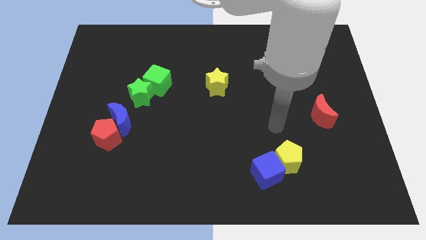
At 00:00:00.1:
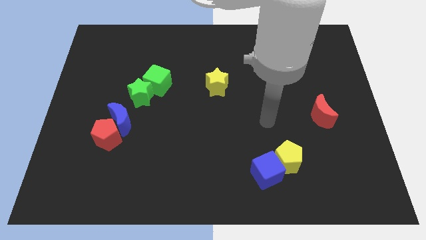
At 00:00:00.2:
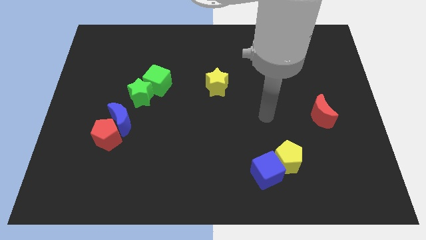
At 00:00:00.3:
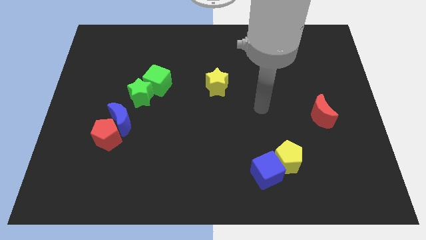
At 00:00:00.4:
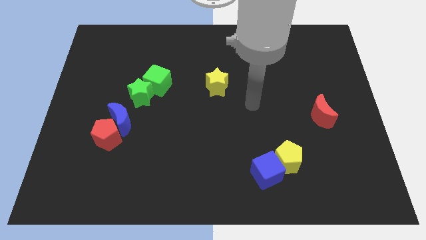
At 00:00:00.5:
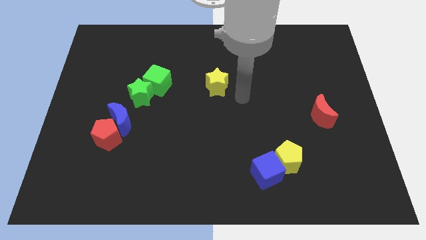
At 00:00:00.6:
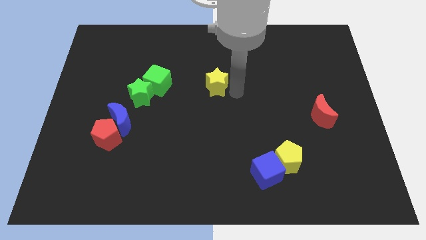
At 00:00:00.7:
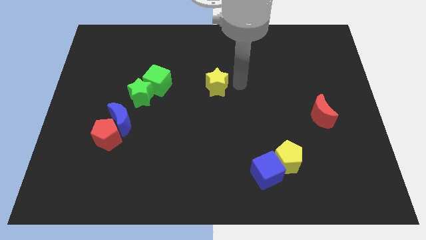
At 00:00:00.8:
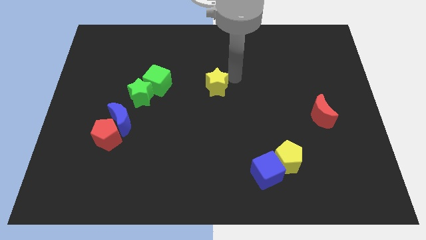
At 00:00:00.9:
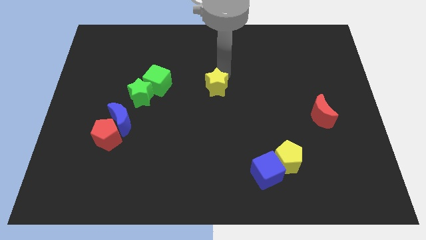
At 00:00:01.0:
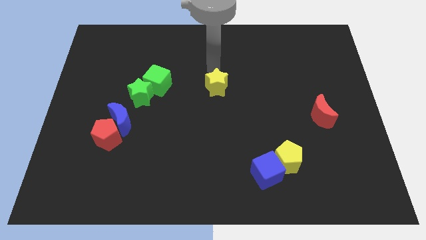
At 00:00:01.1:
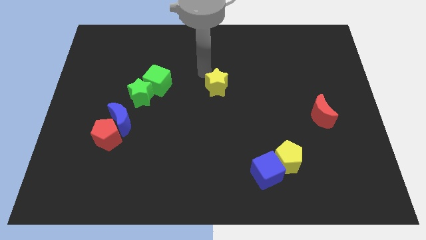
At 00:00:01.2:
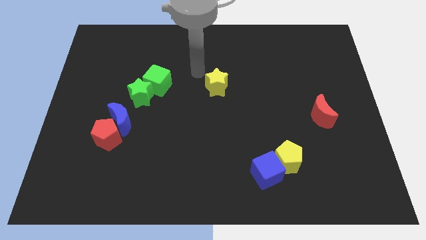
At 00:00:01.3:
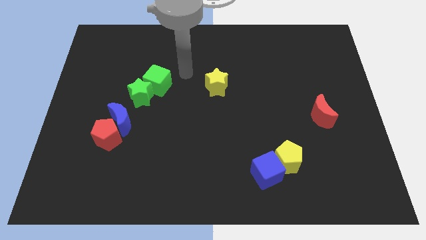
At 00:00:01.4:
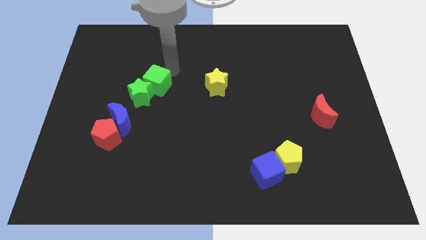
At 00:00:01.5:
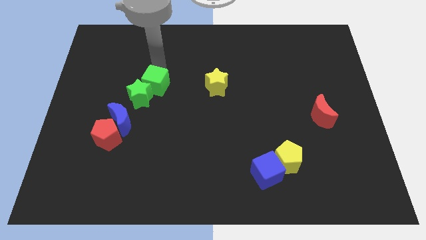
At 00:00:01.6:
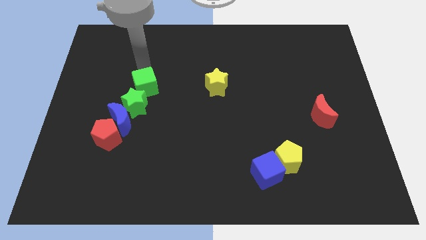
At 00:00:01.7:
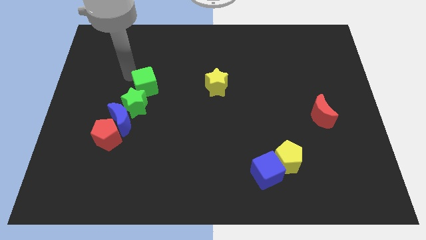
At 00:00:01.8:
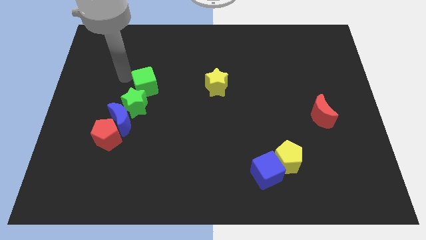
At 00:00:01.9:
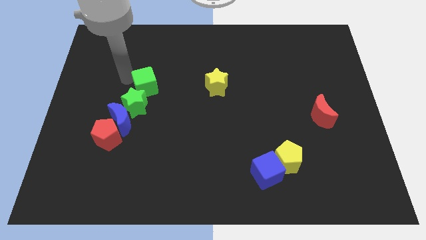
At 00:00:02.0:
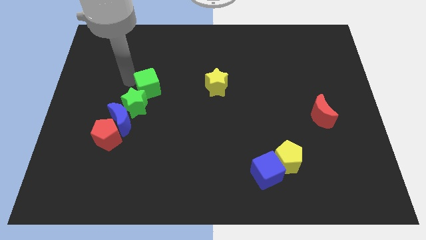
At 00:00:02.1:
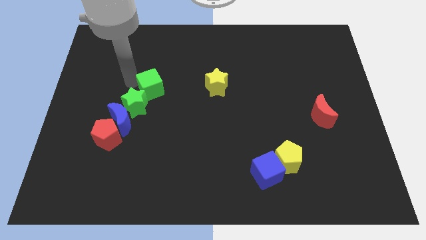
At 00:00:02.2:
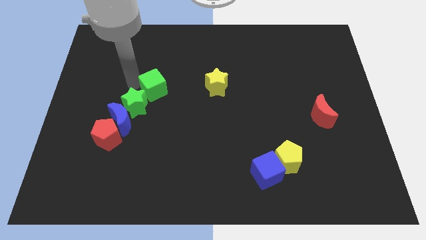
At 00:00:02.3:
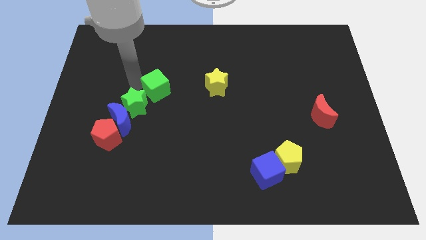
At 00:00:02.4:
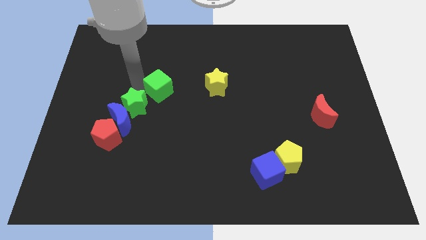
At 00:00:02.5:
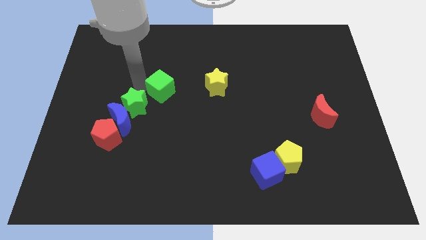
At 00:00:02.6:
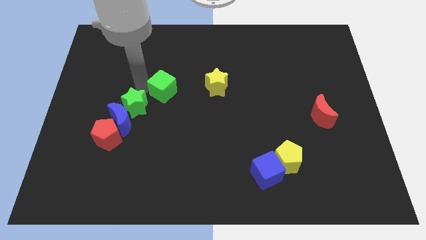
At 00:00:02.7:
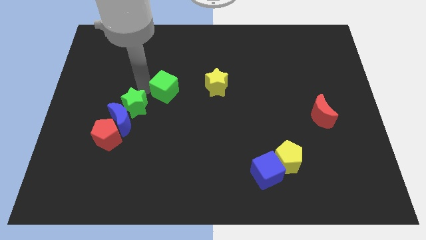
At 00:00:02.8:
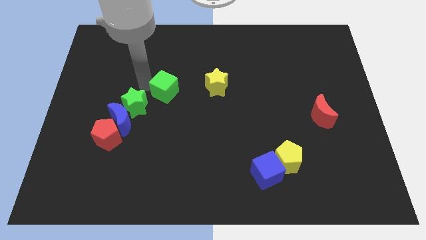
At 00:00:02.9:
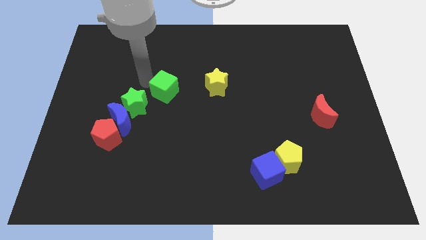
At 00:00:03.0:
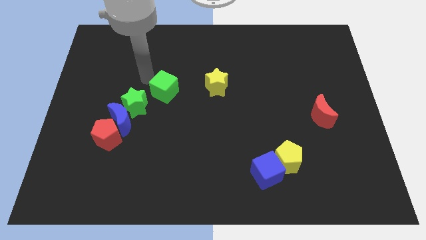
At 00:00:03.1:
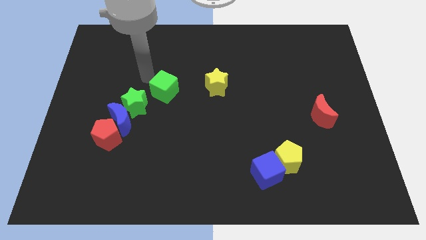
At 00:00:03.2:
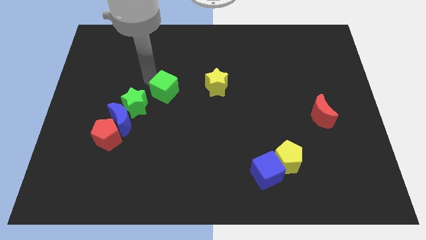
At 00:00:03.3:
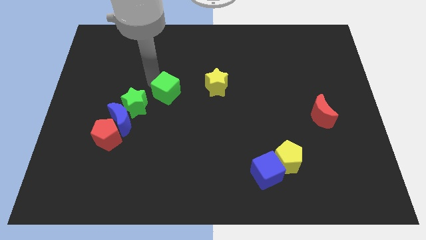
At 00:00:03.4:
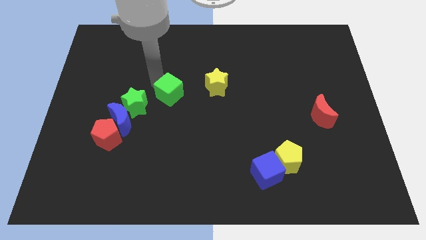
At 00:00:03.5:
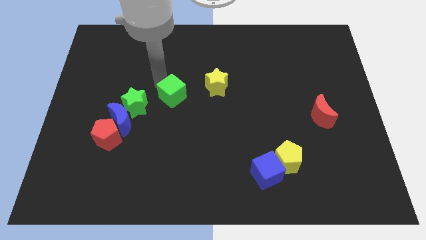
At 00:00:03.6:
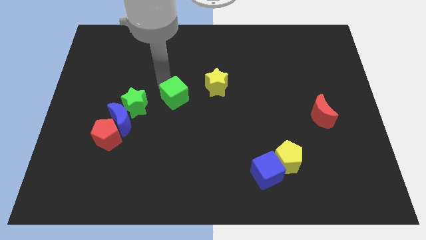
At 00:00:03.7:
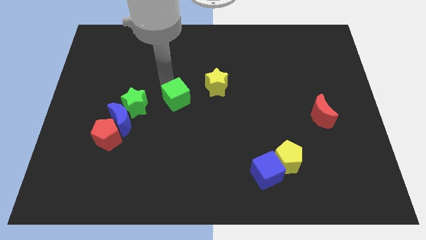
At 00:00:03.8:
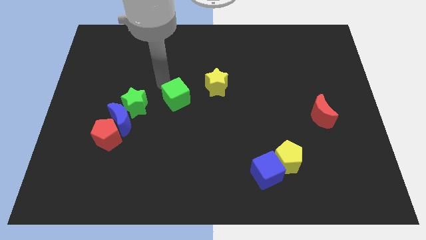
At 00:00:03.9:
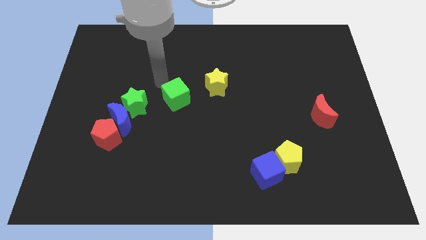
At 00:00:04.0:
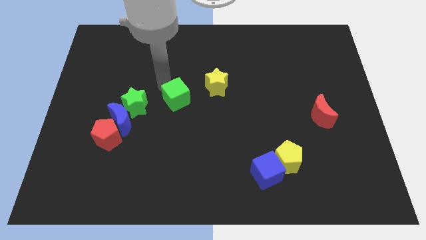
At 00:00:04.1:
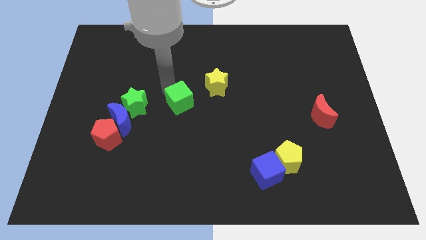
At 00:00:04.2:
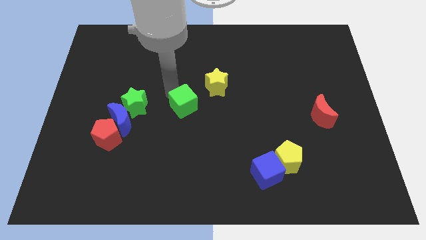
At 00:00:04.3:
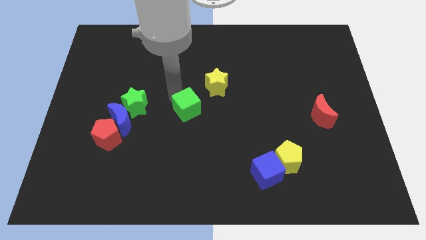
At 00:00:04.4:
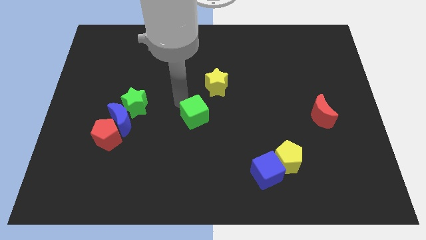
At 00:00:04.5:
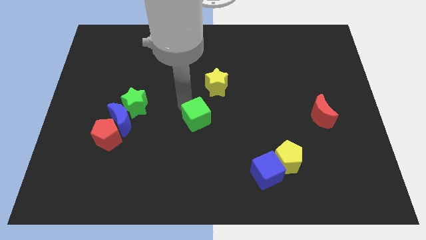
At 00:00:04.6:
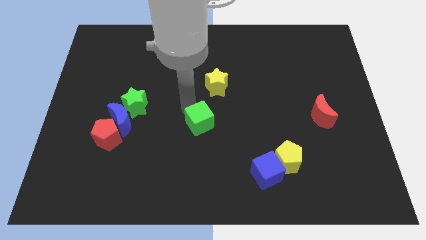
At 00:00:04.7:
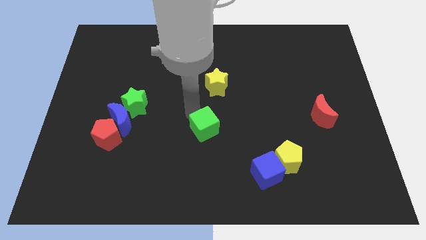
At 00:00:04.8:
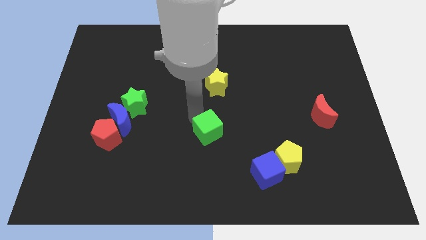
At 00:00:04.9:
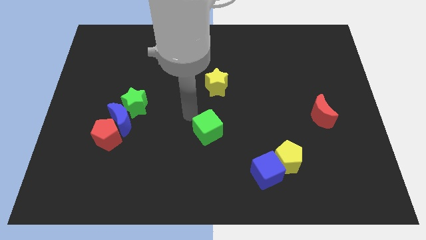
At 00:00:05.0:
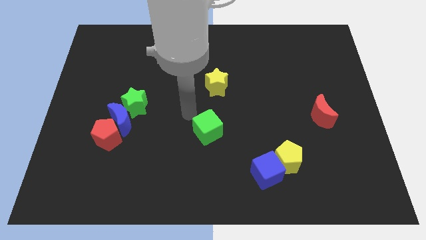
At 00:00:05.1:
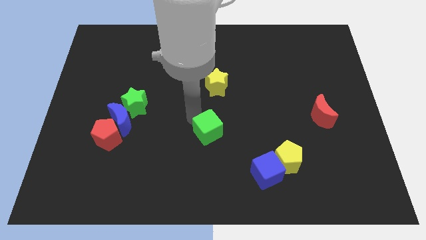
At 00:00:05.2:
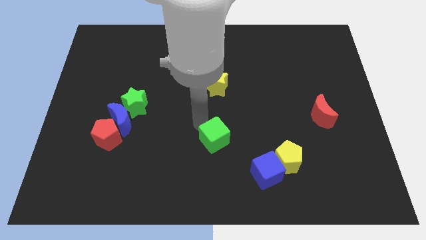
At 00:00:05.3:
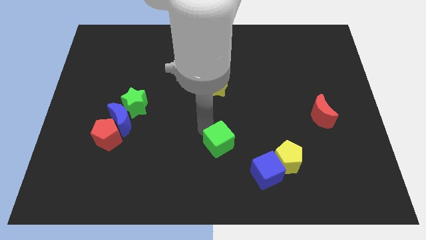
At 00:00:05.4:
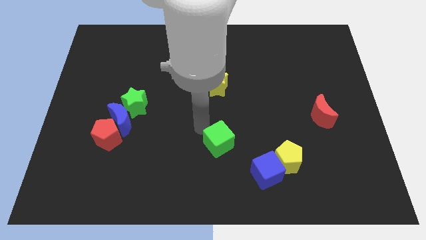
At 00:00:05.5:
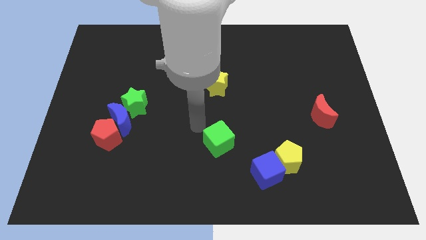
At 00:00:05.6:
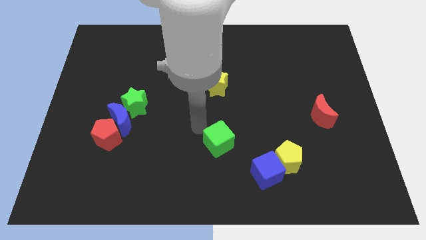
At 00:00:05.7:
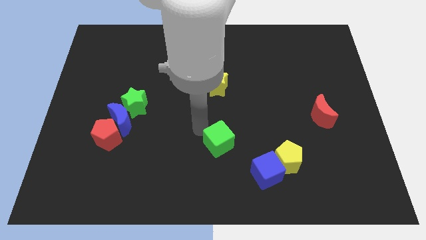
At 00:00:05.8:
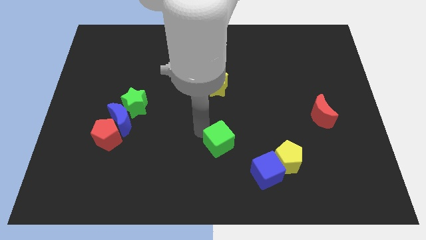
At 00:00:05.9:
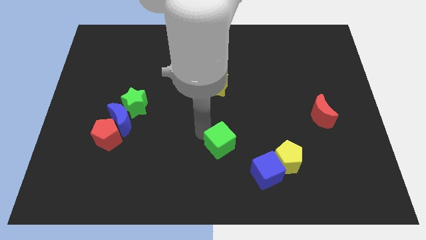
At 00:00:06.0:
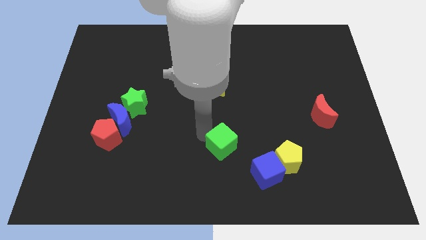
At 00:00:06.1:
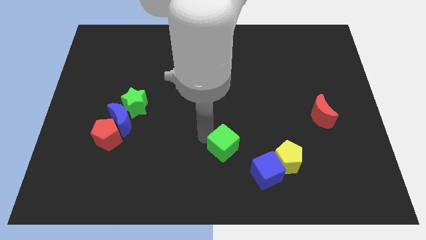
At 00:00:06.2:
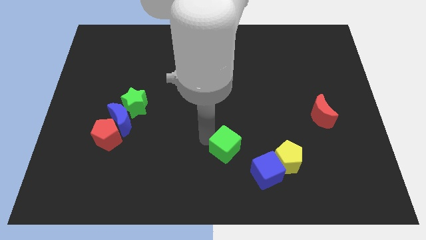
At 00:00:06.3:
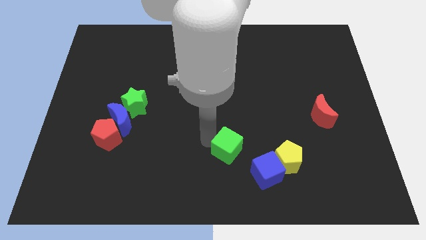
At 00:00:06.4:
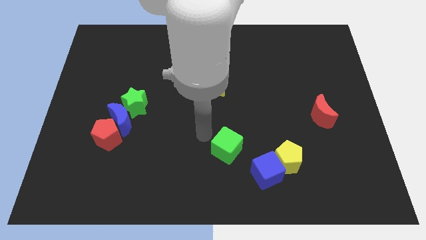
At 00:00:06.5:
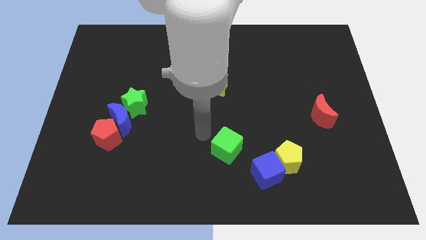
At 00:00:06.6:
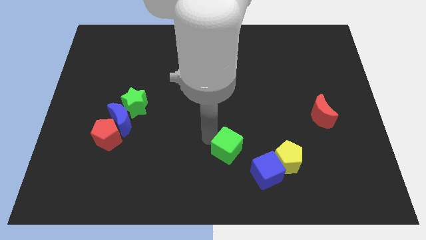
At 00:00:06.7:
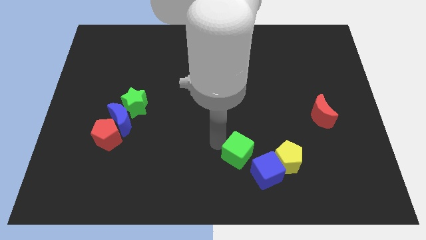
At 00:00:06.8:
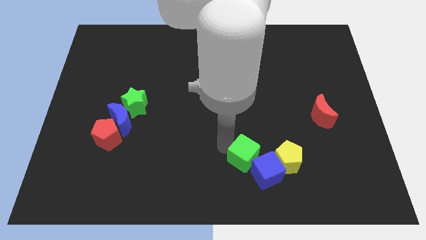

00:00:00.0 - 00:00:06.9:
move the green cube to the blue cube
